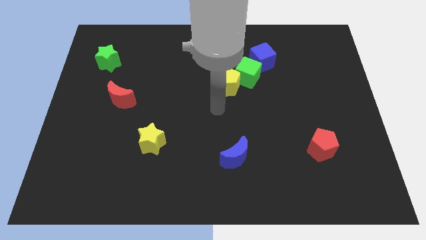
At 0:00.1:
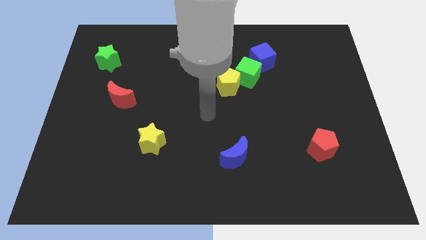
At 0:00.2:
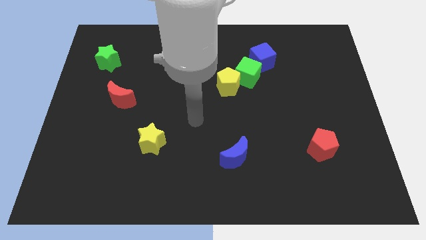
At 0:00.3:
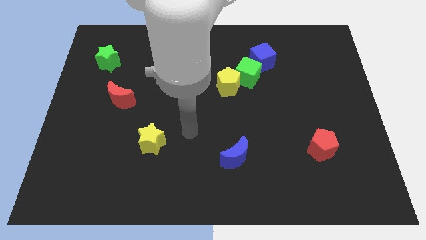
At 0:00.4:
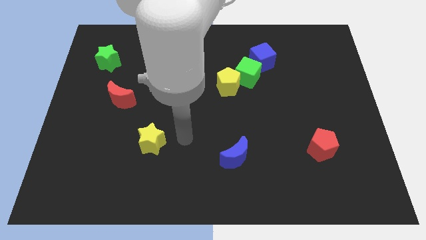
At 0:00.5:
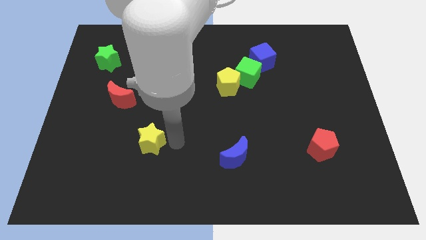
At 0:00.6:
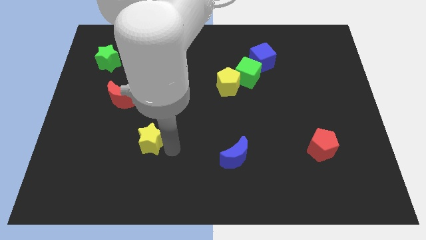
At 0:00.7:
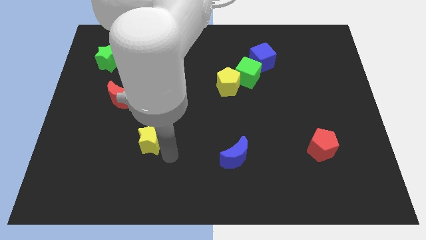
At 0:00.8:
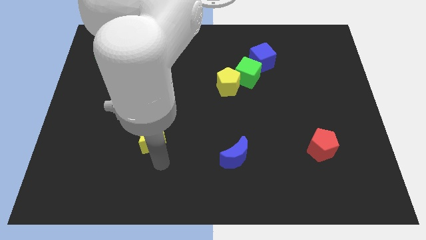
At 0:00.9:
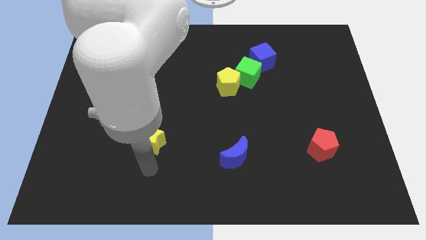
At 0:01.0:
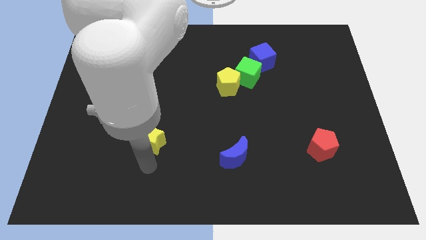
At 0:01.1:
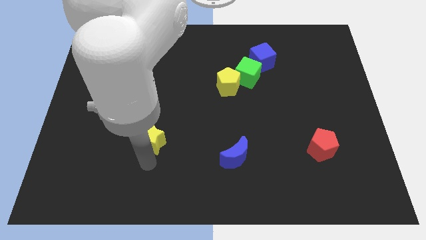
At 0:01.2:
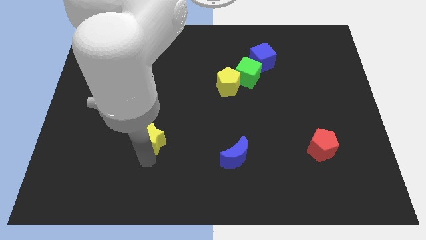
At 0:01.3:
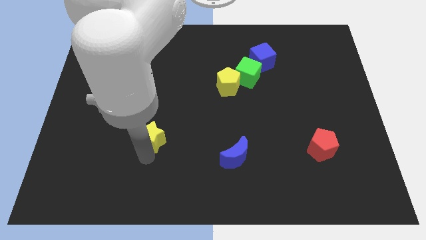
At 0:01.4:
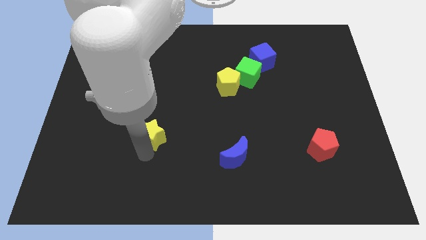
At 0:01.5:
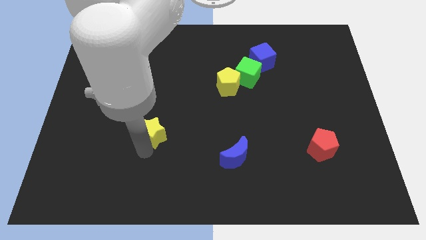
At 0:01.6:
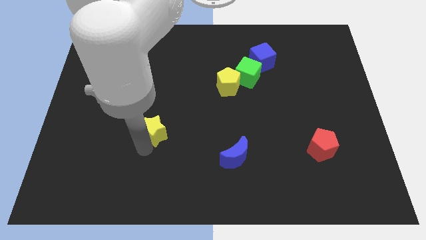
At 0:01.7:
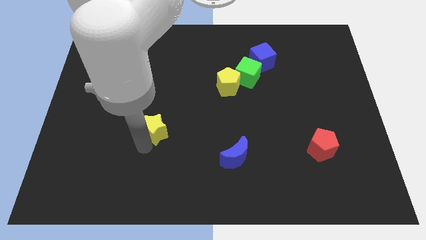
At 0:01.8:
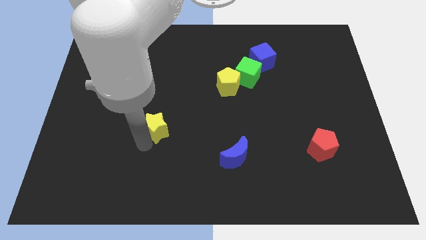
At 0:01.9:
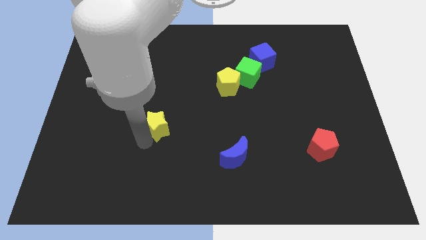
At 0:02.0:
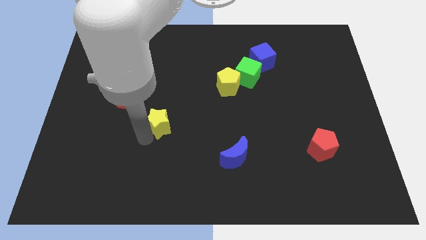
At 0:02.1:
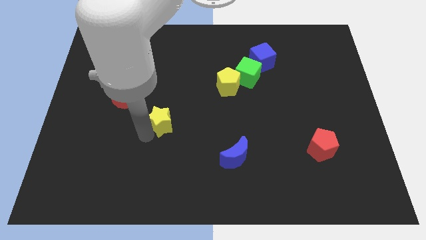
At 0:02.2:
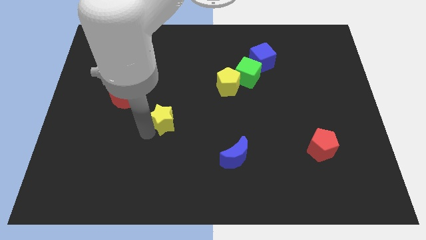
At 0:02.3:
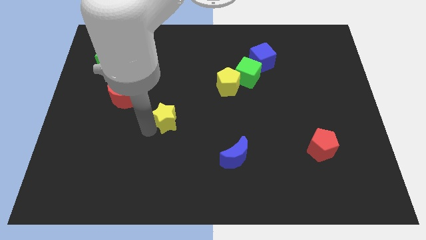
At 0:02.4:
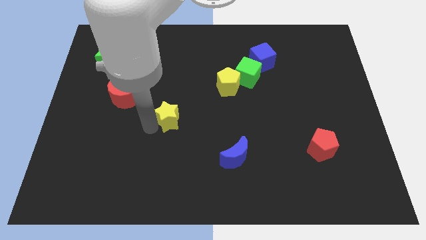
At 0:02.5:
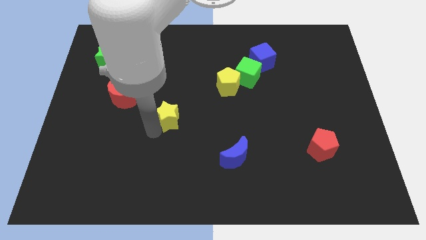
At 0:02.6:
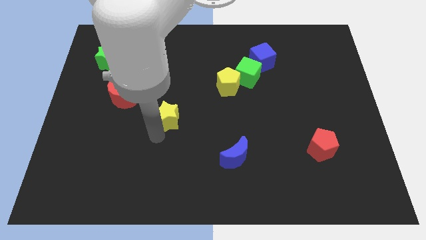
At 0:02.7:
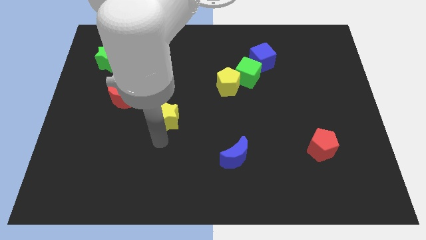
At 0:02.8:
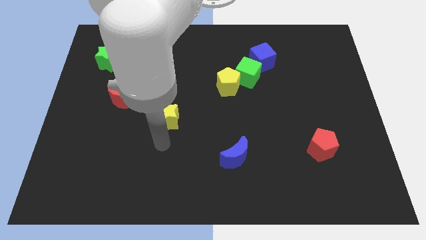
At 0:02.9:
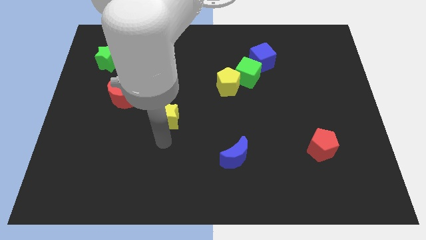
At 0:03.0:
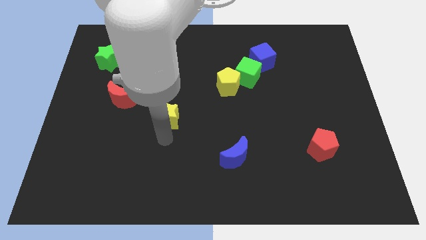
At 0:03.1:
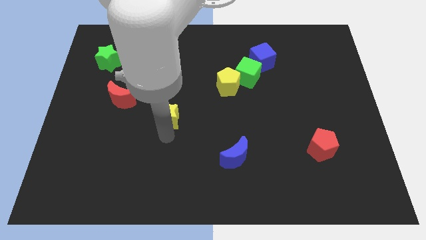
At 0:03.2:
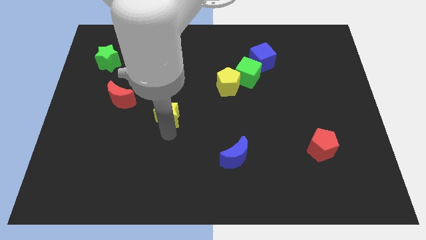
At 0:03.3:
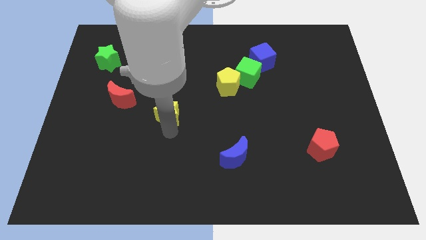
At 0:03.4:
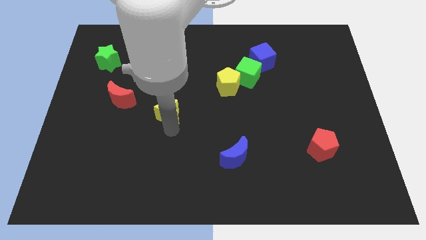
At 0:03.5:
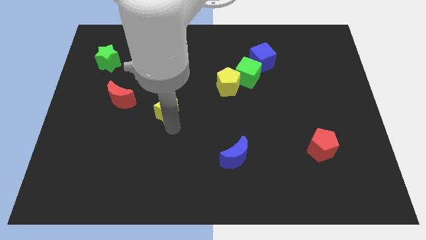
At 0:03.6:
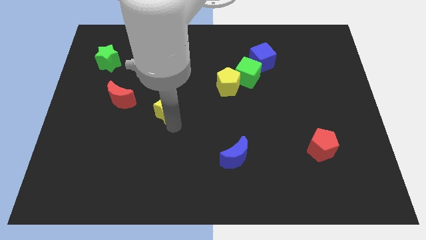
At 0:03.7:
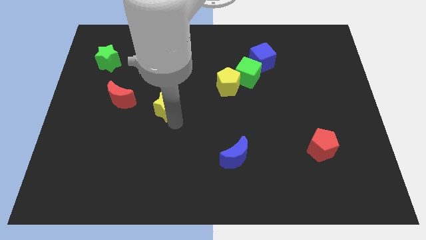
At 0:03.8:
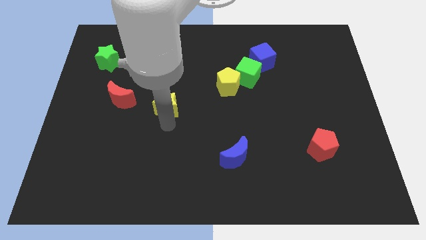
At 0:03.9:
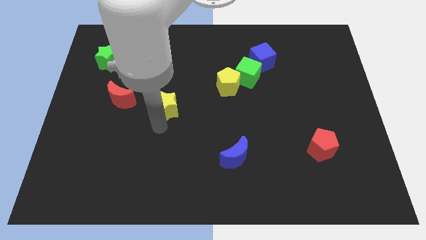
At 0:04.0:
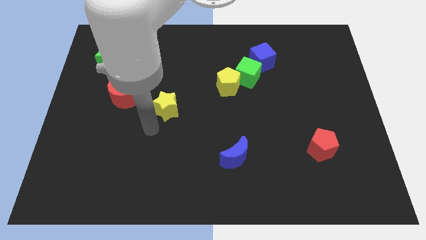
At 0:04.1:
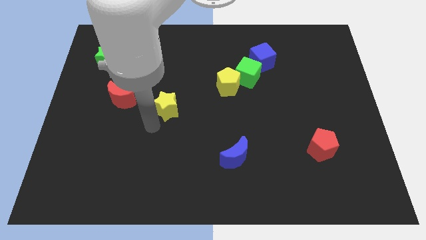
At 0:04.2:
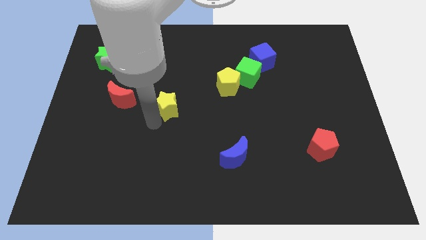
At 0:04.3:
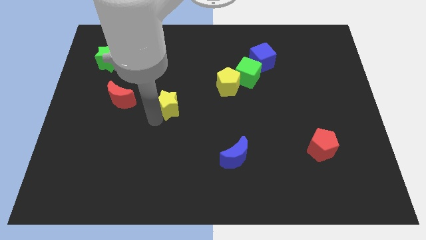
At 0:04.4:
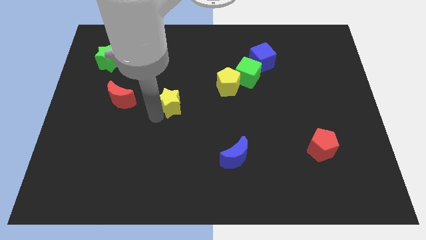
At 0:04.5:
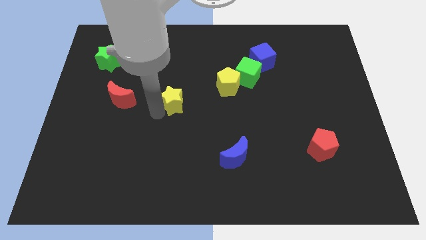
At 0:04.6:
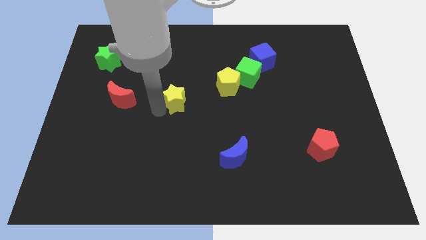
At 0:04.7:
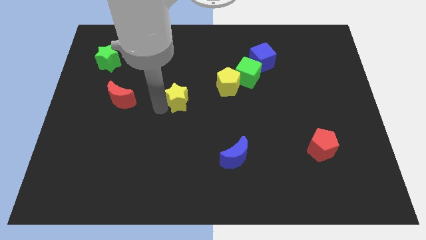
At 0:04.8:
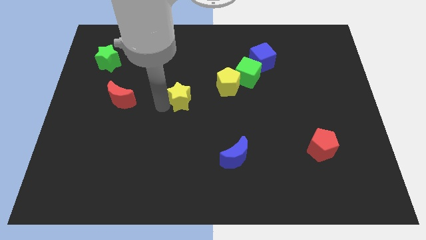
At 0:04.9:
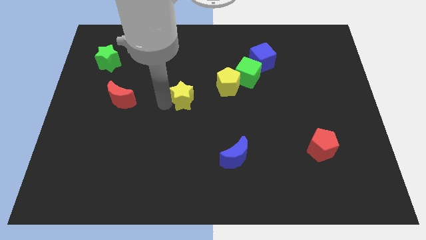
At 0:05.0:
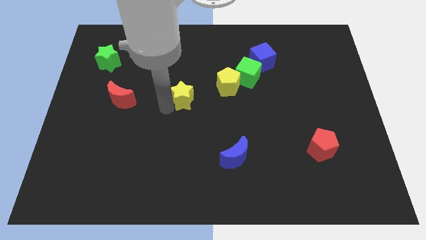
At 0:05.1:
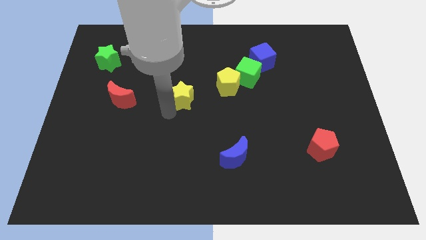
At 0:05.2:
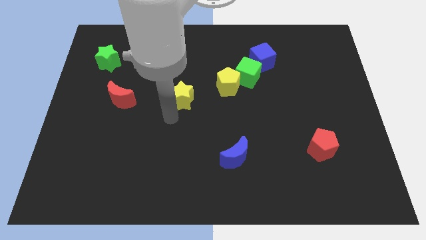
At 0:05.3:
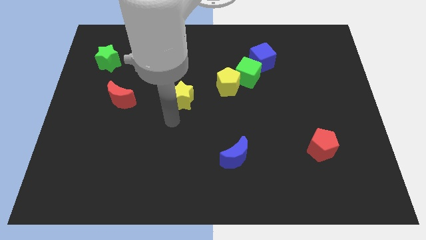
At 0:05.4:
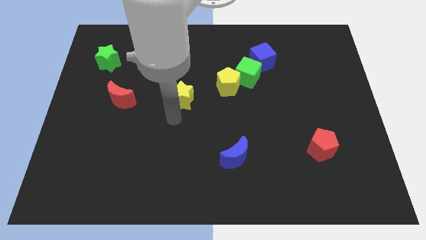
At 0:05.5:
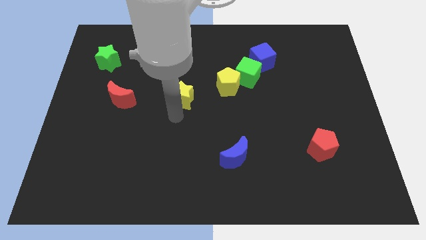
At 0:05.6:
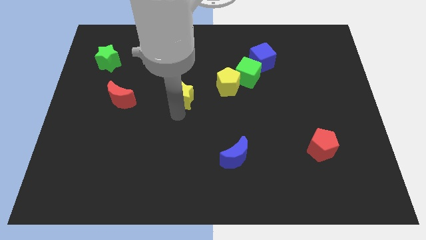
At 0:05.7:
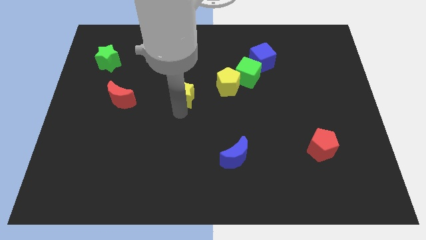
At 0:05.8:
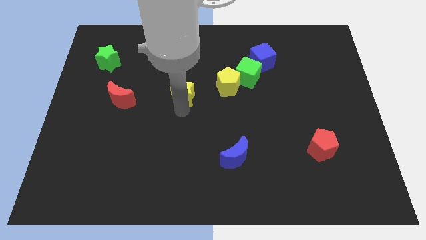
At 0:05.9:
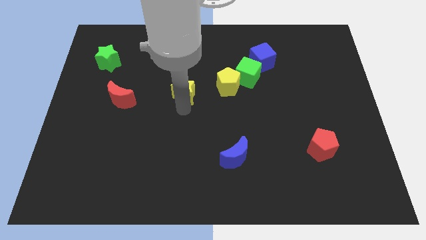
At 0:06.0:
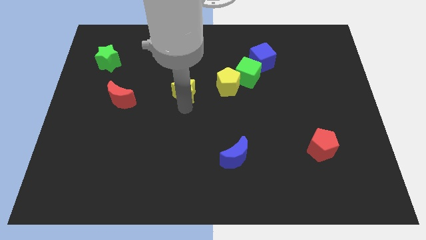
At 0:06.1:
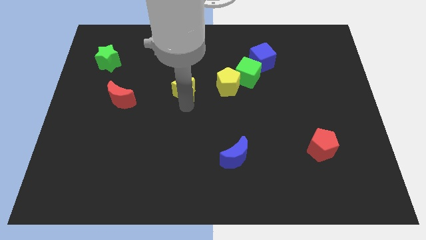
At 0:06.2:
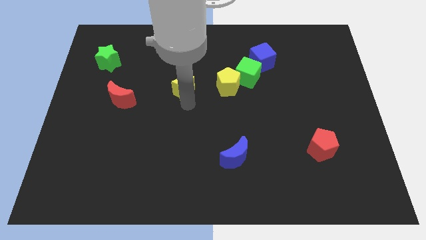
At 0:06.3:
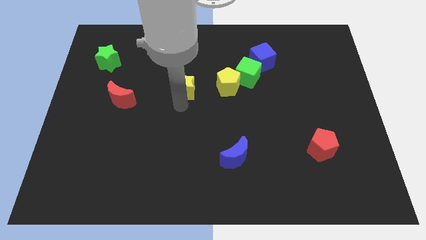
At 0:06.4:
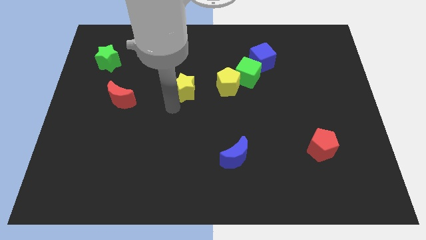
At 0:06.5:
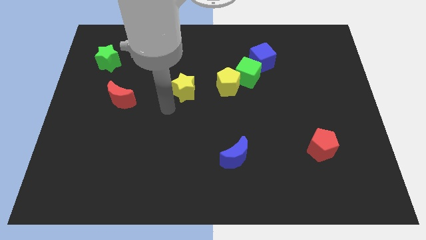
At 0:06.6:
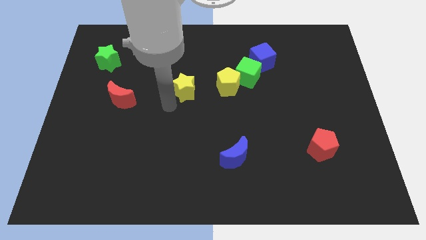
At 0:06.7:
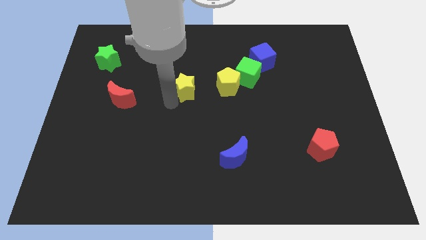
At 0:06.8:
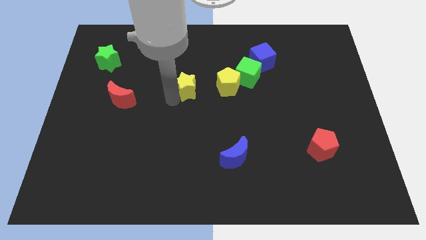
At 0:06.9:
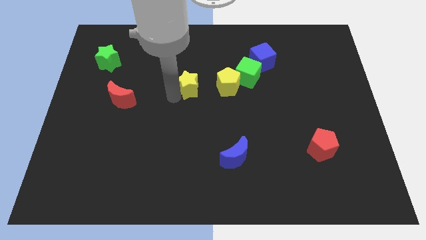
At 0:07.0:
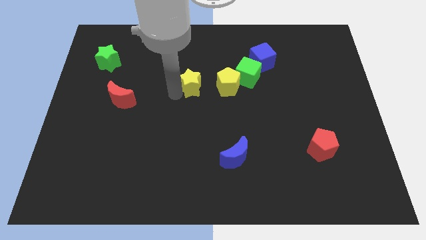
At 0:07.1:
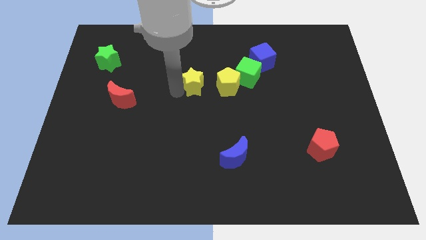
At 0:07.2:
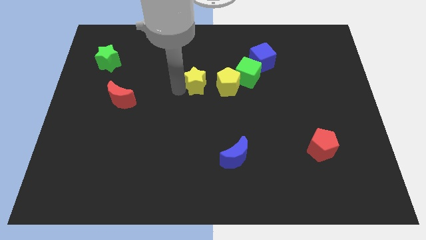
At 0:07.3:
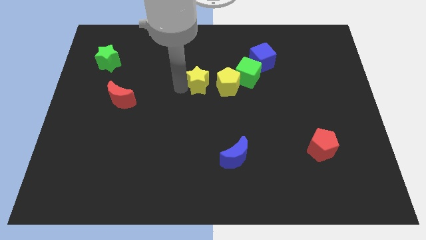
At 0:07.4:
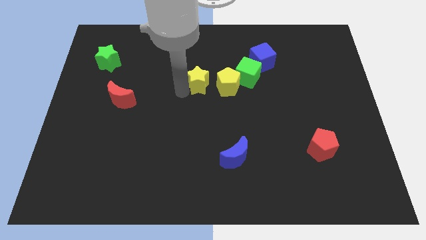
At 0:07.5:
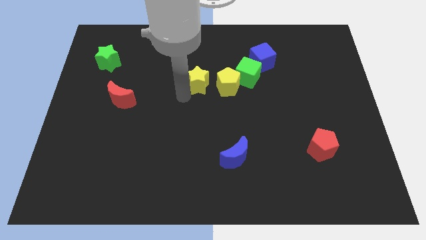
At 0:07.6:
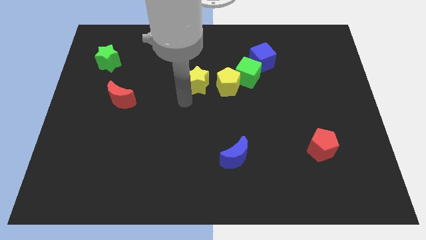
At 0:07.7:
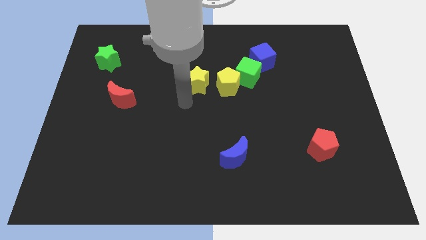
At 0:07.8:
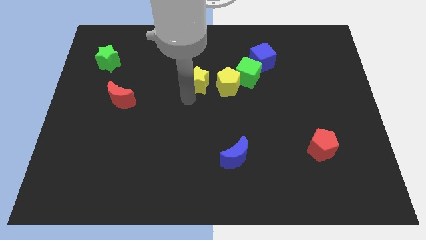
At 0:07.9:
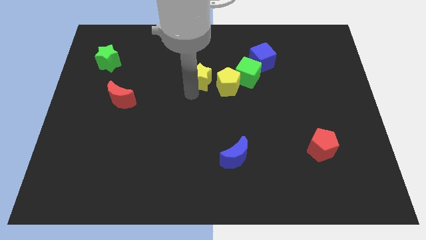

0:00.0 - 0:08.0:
slide the yellow star diagonally up and to the left of the yellow pentagon
